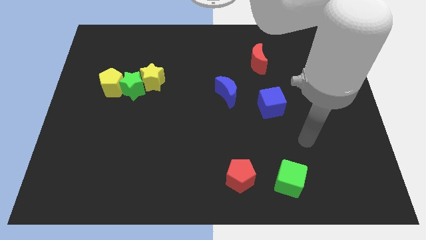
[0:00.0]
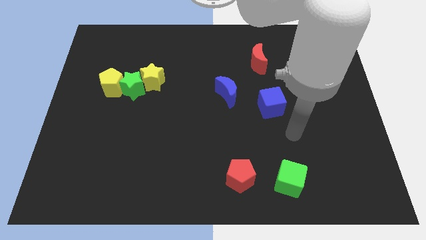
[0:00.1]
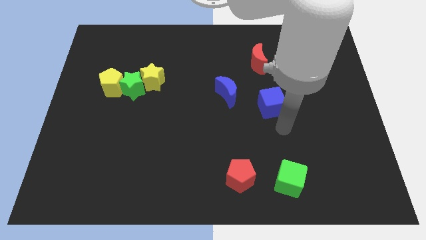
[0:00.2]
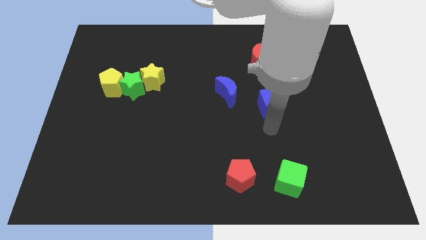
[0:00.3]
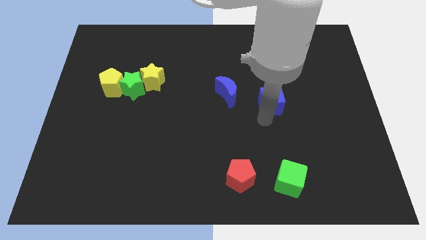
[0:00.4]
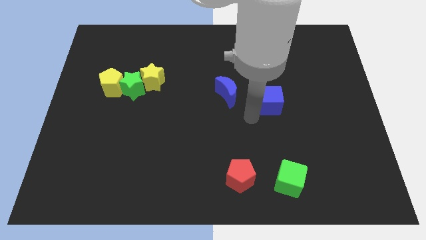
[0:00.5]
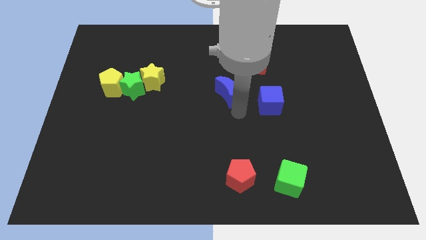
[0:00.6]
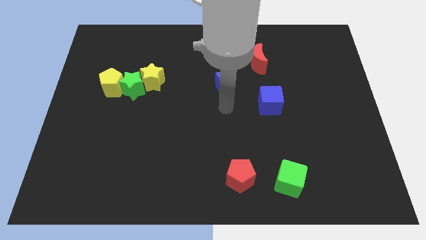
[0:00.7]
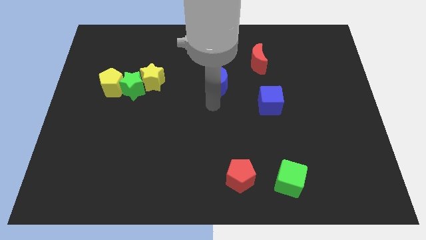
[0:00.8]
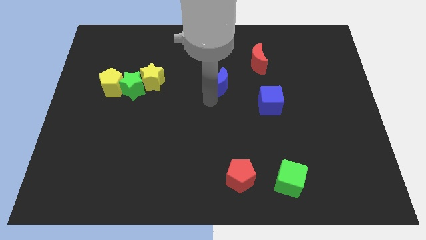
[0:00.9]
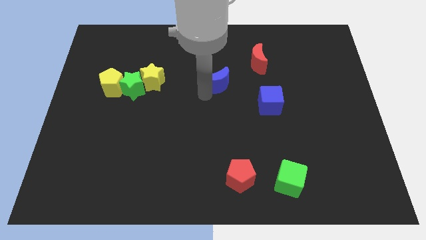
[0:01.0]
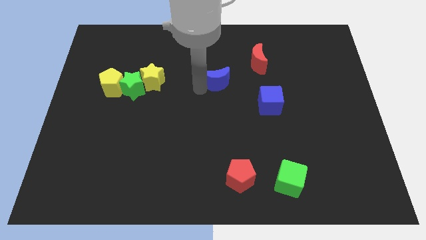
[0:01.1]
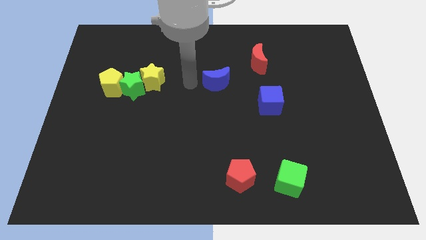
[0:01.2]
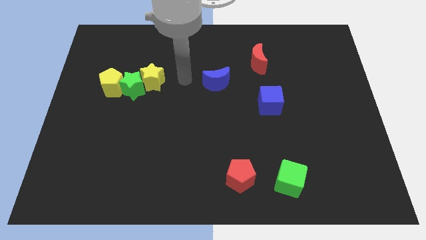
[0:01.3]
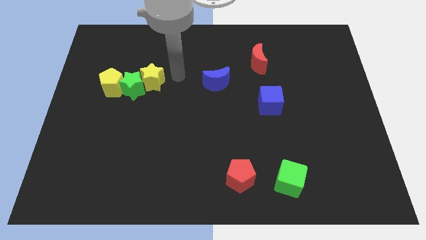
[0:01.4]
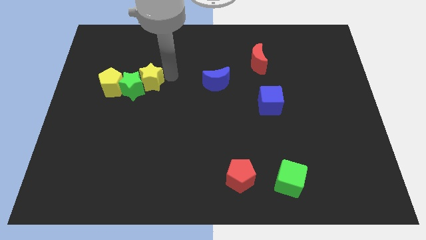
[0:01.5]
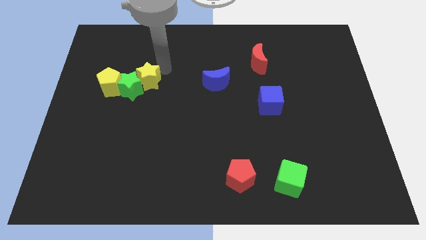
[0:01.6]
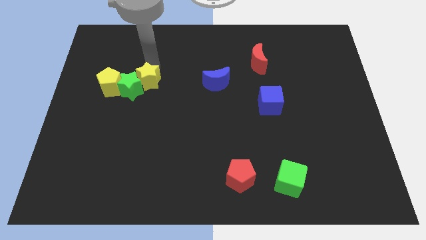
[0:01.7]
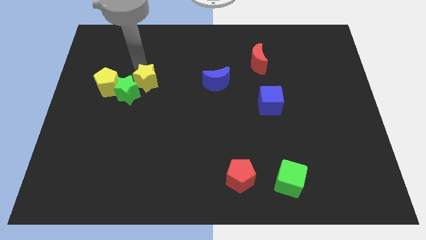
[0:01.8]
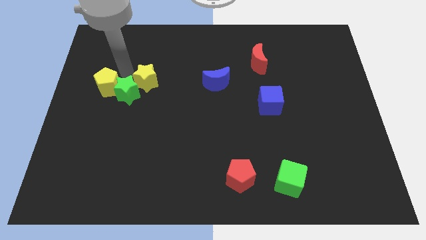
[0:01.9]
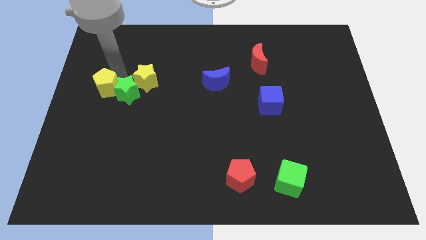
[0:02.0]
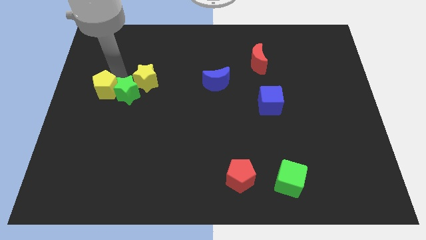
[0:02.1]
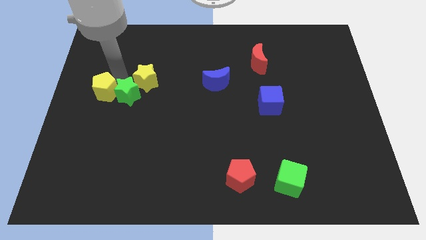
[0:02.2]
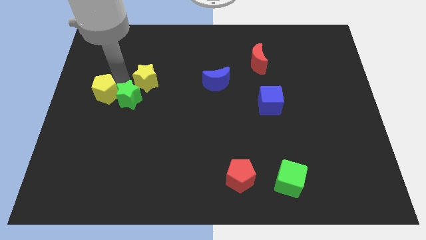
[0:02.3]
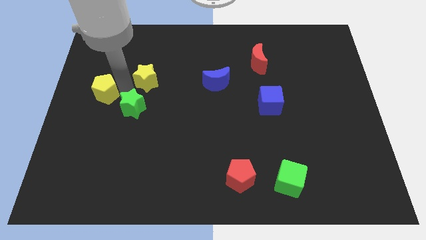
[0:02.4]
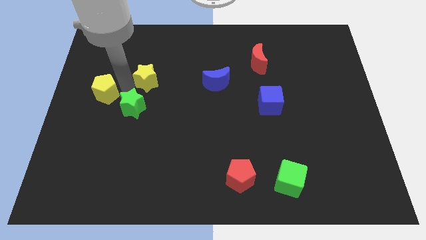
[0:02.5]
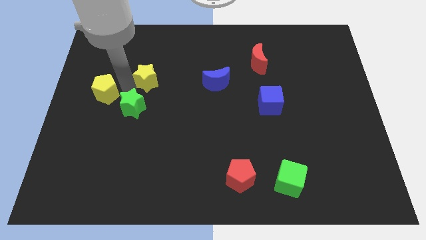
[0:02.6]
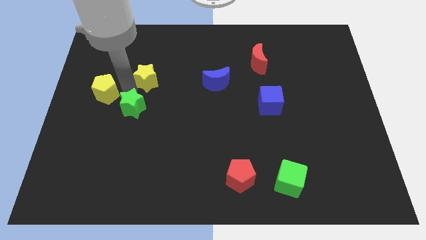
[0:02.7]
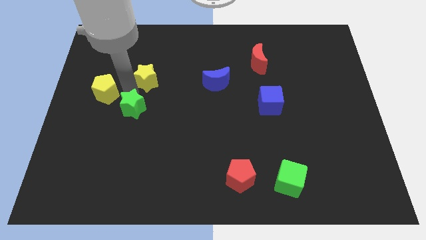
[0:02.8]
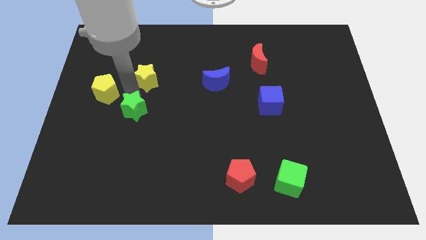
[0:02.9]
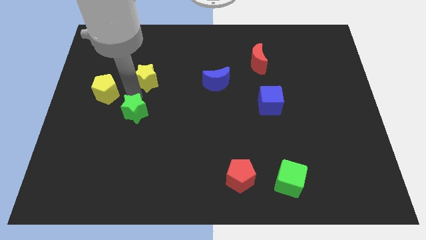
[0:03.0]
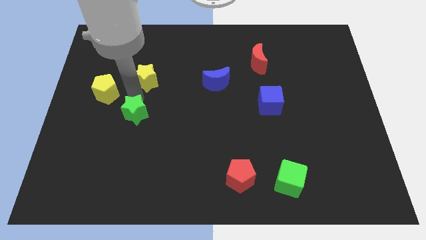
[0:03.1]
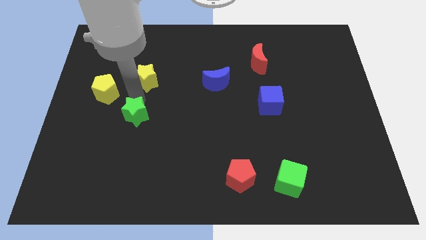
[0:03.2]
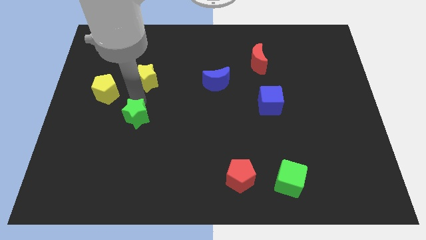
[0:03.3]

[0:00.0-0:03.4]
move the green star away from the yellow pentagon and yellow star

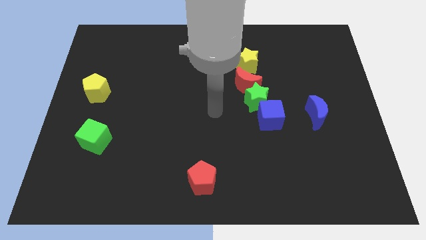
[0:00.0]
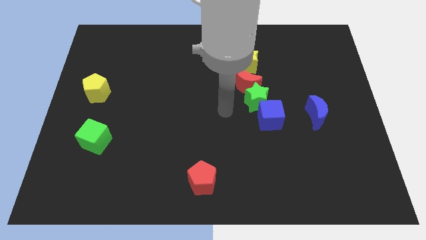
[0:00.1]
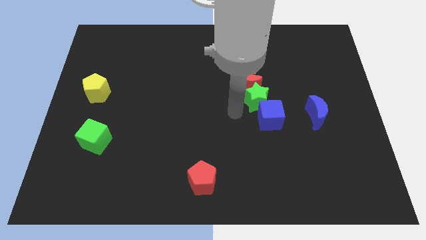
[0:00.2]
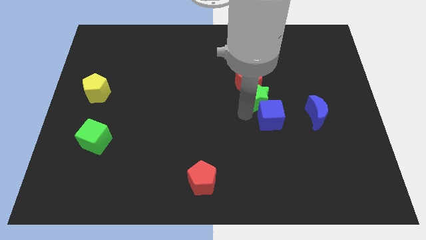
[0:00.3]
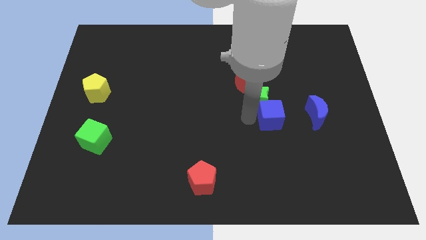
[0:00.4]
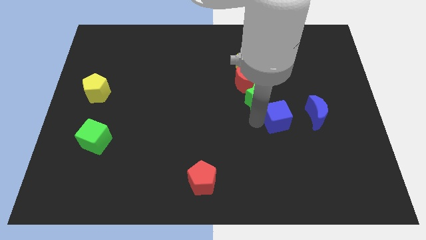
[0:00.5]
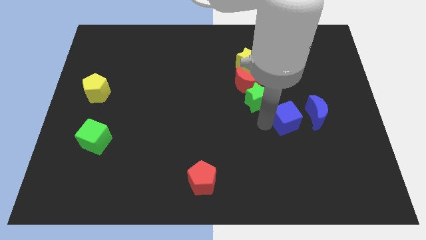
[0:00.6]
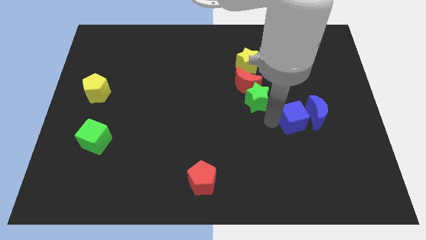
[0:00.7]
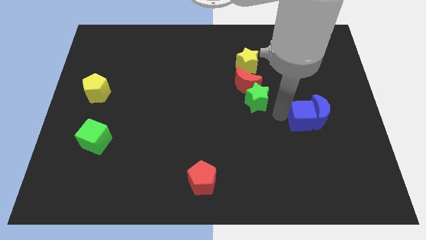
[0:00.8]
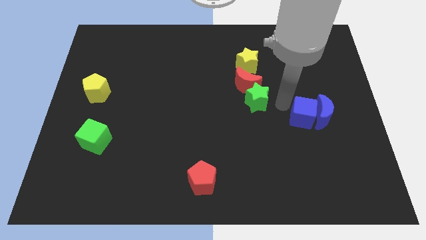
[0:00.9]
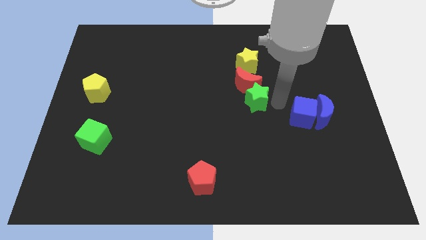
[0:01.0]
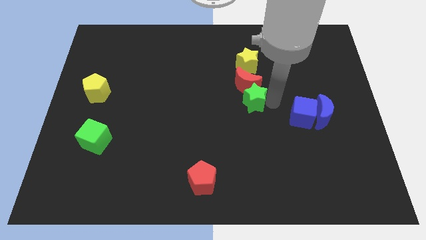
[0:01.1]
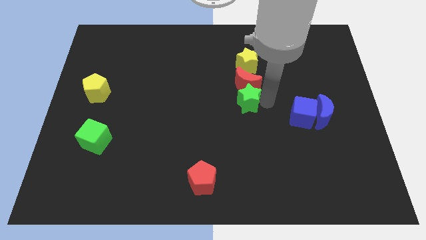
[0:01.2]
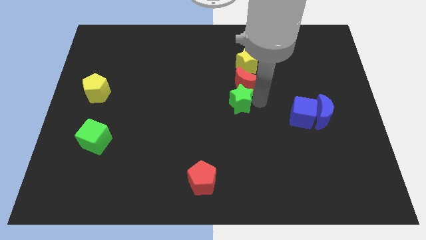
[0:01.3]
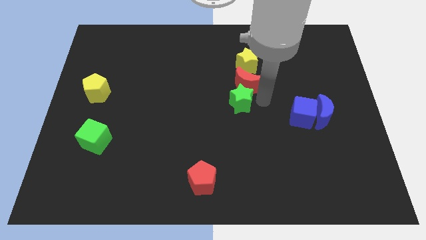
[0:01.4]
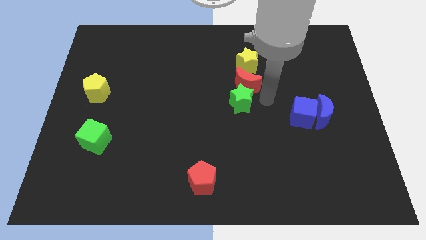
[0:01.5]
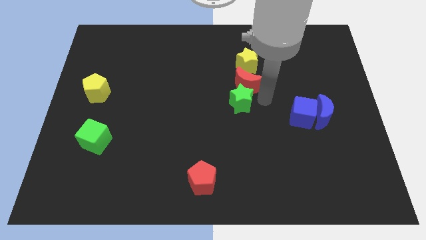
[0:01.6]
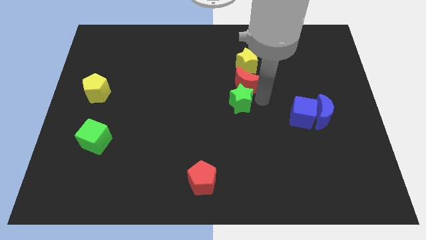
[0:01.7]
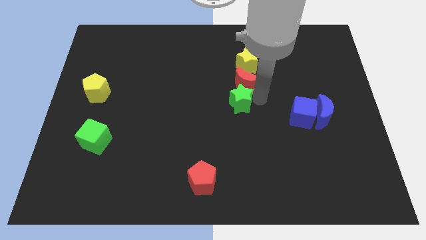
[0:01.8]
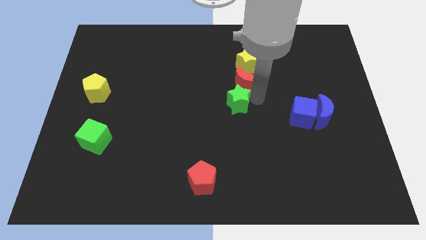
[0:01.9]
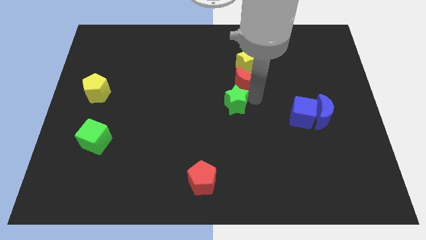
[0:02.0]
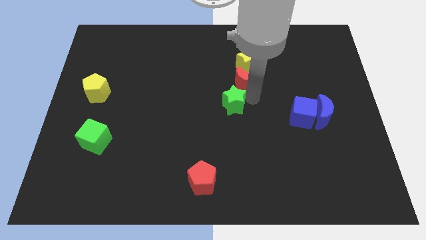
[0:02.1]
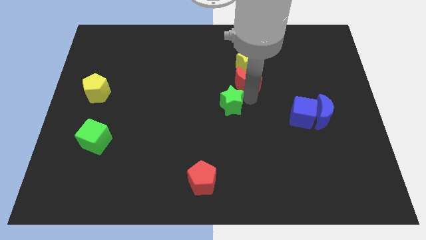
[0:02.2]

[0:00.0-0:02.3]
separate the green star from the red moon and blue cube

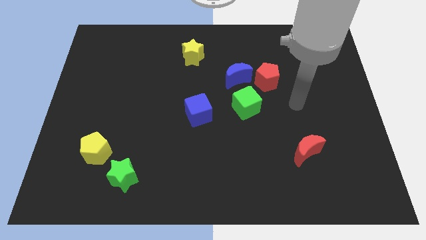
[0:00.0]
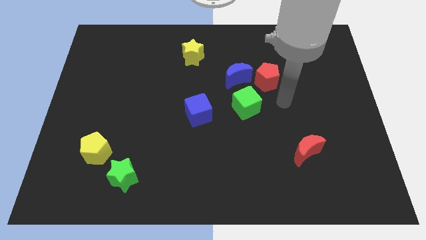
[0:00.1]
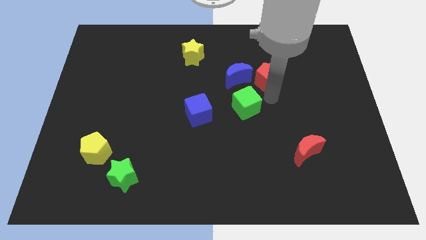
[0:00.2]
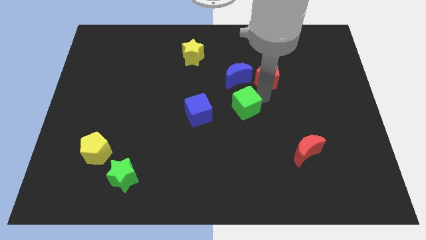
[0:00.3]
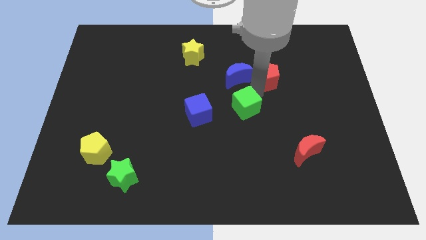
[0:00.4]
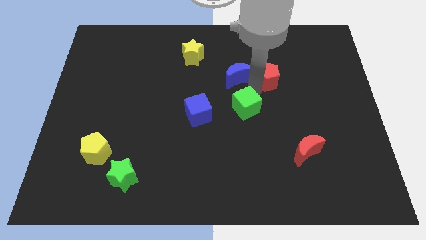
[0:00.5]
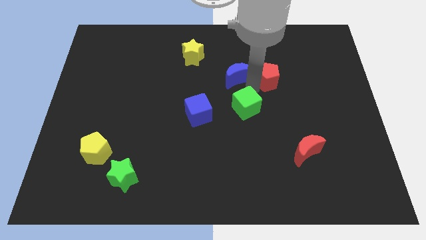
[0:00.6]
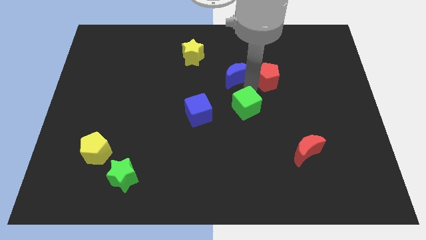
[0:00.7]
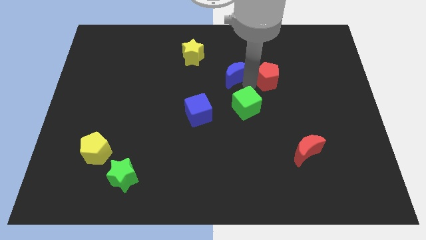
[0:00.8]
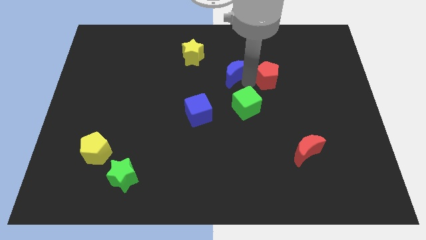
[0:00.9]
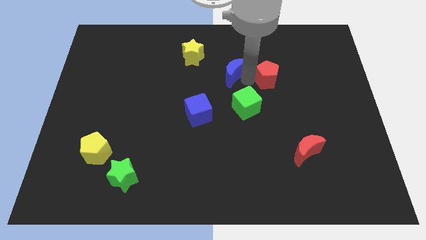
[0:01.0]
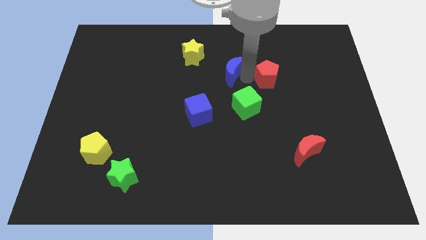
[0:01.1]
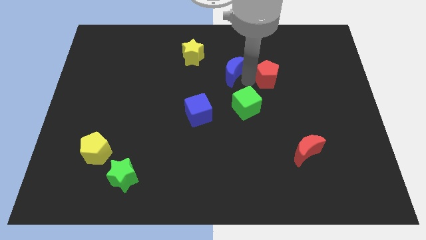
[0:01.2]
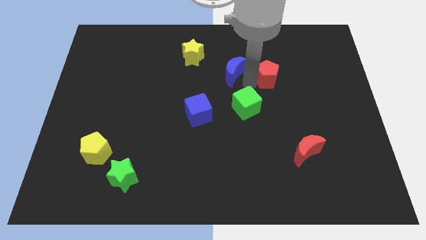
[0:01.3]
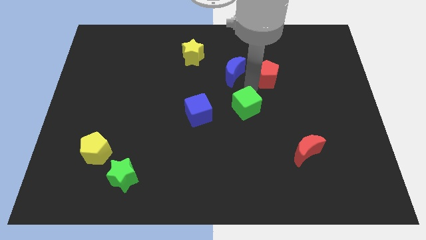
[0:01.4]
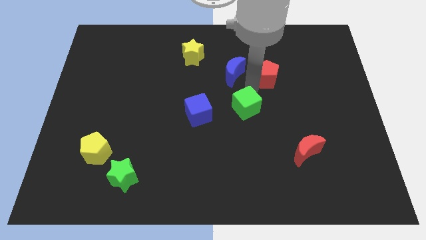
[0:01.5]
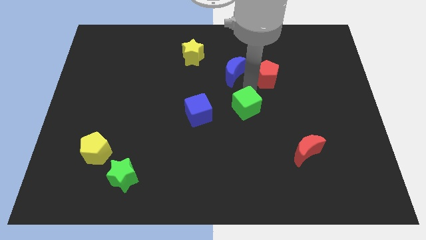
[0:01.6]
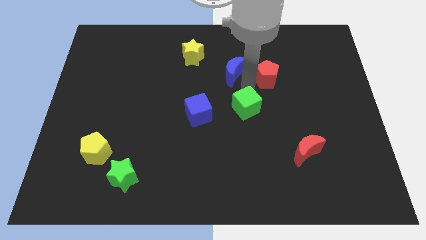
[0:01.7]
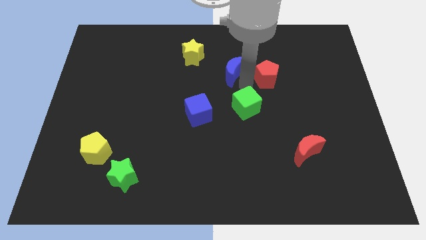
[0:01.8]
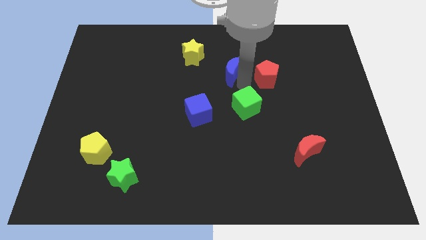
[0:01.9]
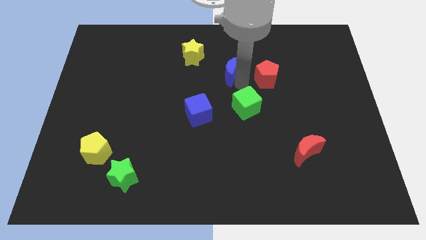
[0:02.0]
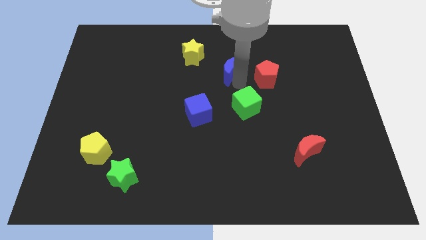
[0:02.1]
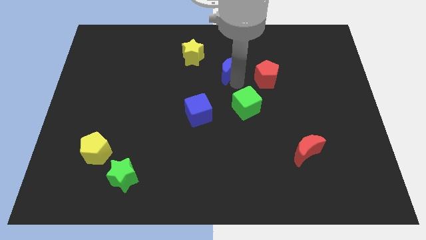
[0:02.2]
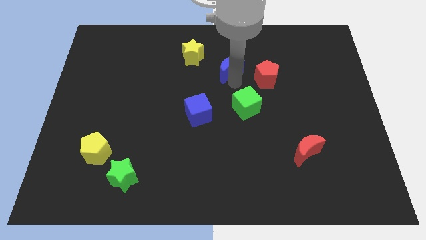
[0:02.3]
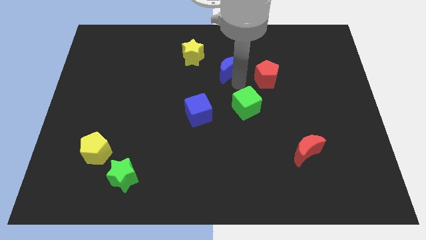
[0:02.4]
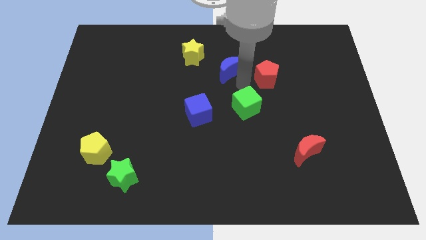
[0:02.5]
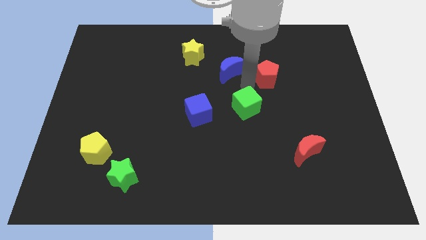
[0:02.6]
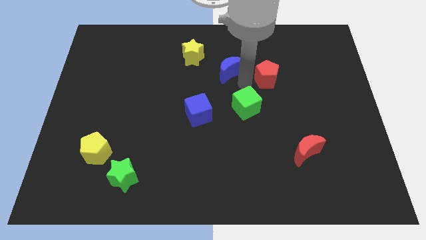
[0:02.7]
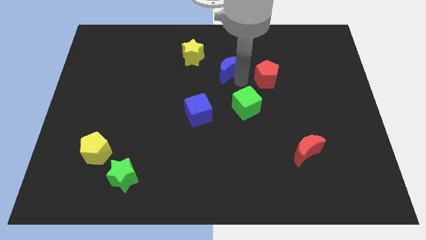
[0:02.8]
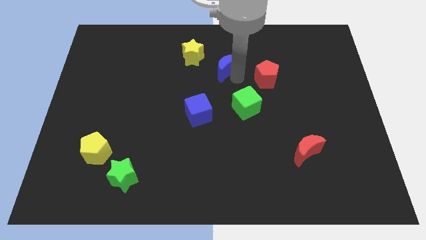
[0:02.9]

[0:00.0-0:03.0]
separate the blue moon from the red pentagon and green cube

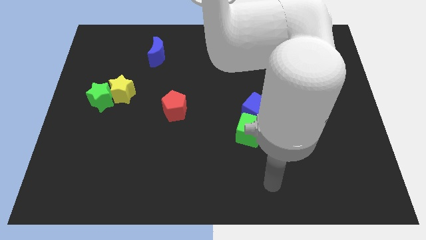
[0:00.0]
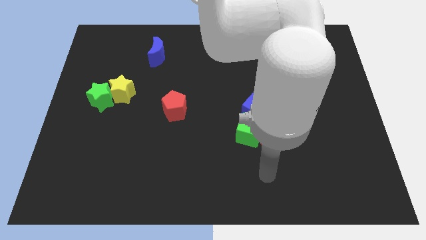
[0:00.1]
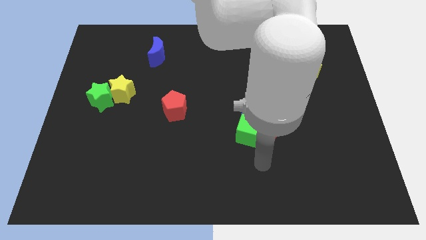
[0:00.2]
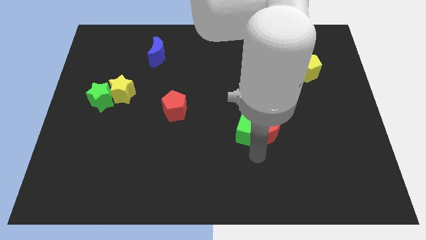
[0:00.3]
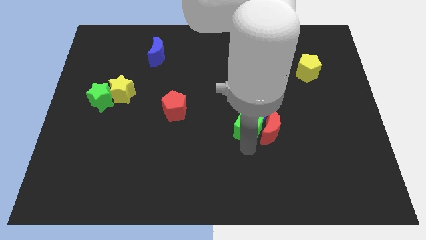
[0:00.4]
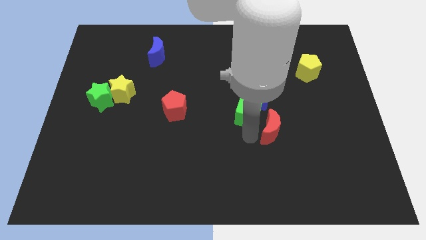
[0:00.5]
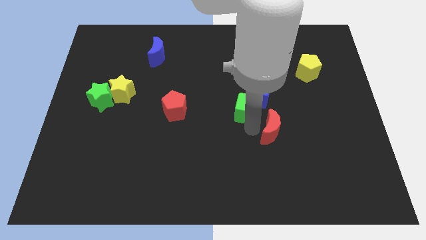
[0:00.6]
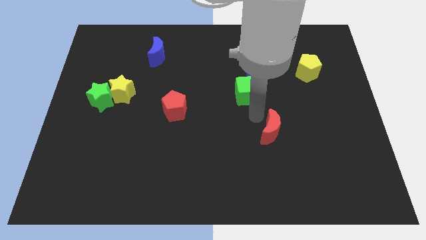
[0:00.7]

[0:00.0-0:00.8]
move the red moon away from the green cube and blue cube
